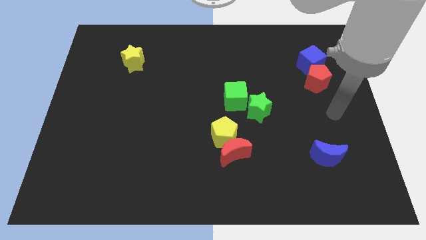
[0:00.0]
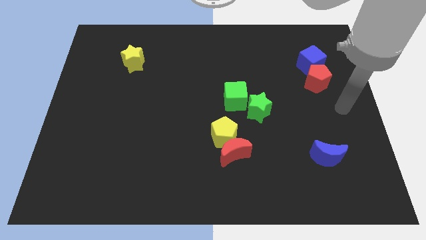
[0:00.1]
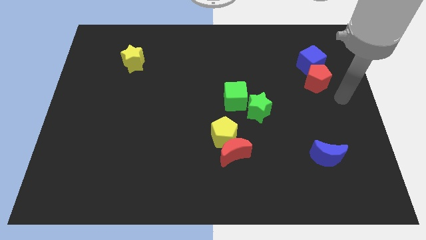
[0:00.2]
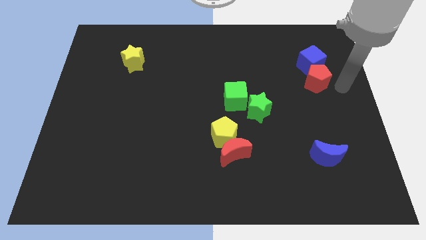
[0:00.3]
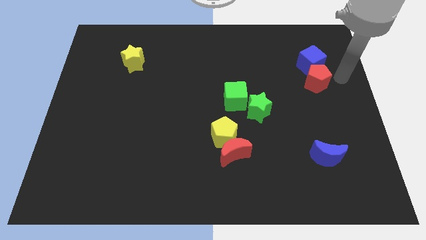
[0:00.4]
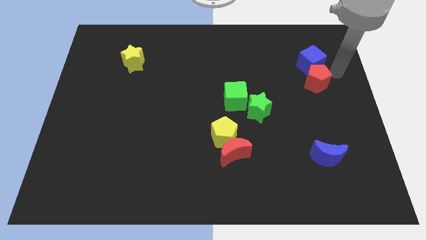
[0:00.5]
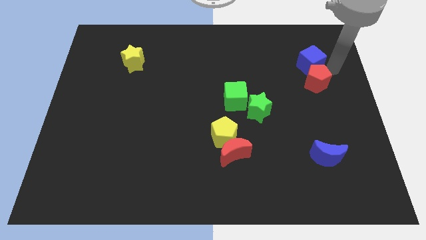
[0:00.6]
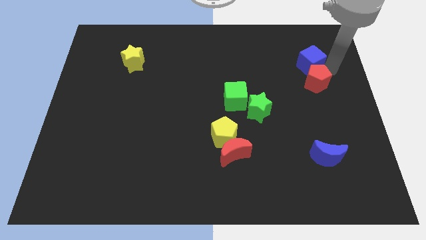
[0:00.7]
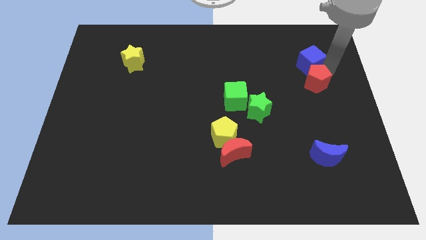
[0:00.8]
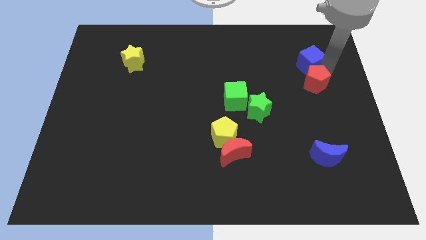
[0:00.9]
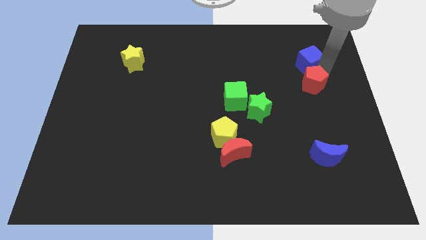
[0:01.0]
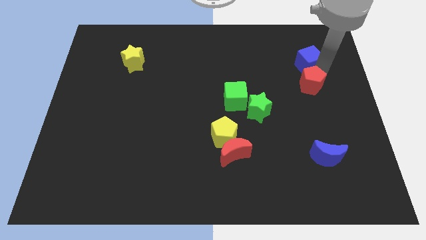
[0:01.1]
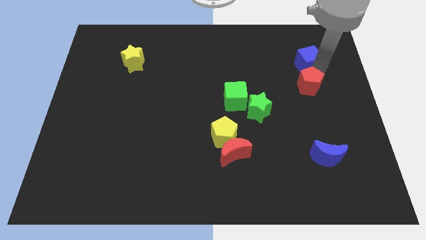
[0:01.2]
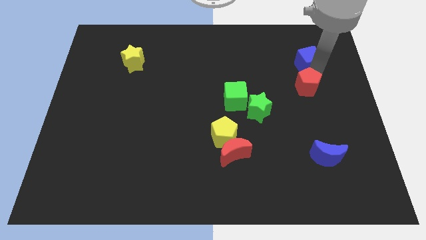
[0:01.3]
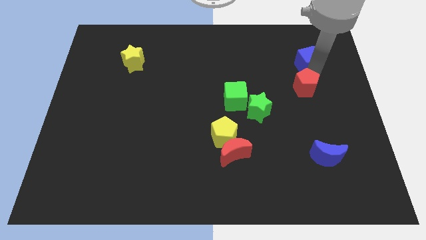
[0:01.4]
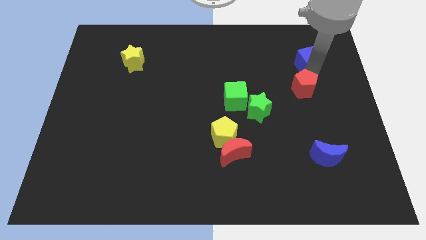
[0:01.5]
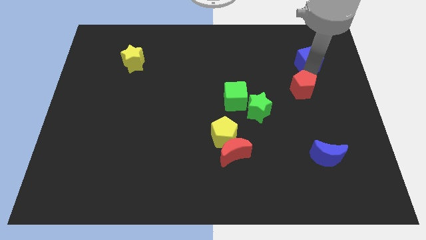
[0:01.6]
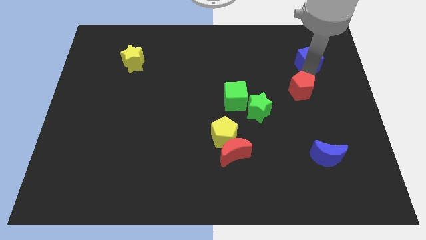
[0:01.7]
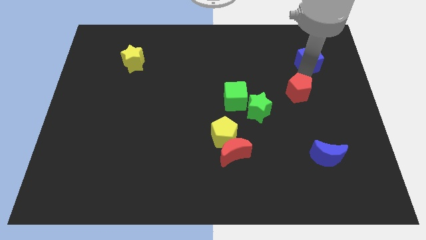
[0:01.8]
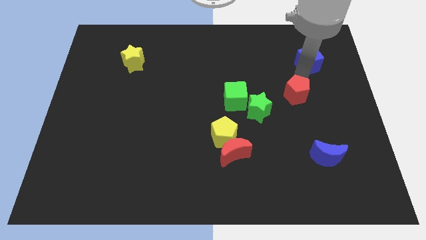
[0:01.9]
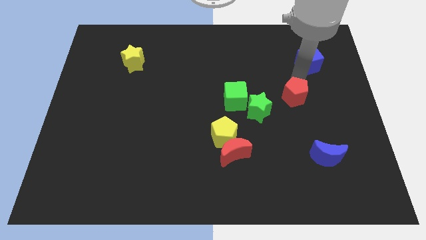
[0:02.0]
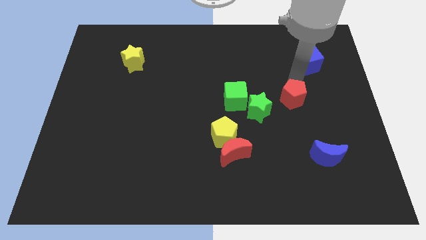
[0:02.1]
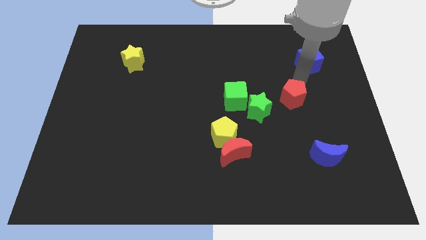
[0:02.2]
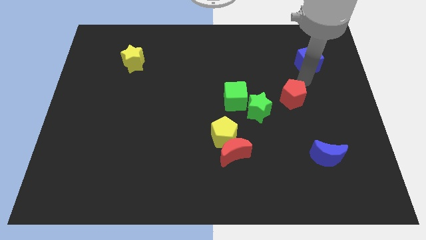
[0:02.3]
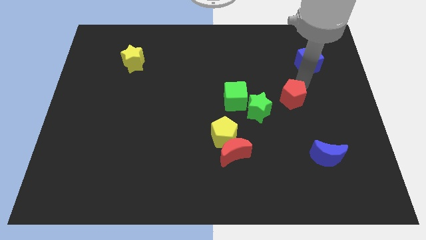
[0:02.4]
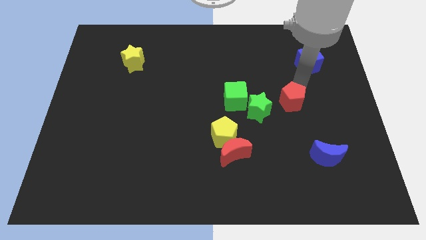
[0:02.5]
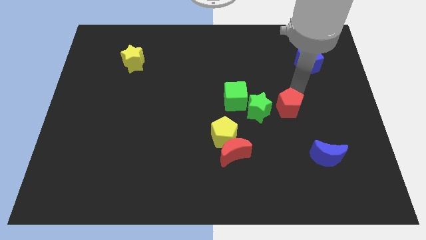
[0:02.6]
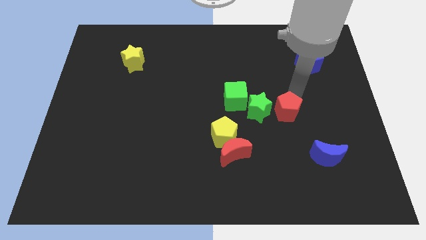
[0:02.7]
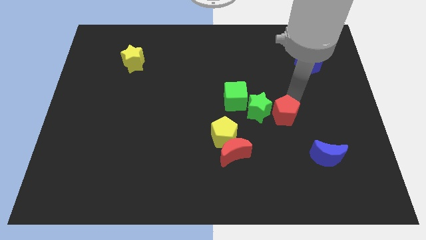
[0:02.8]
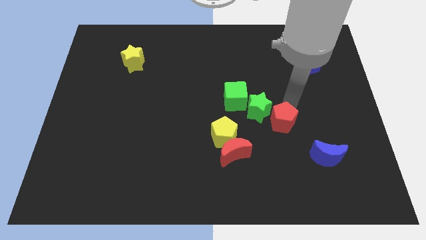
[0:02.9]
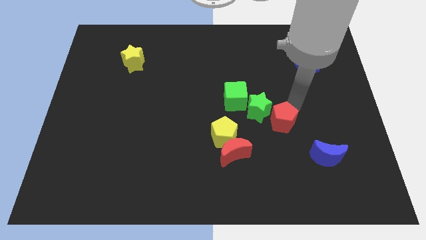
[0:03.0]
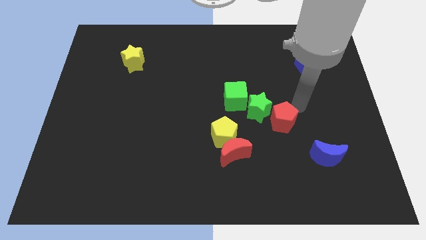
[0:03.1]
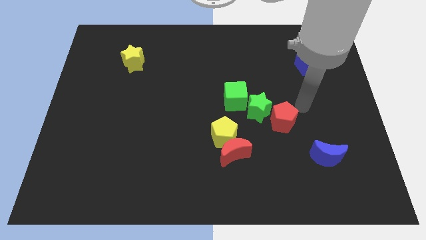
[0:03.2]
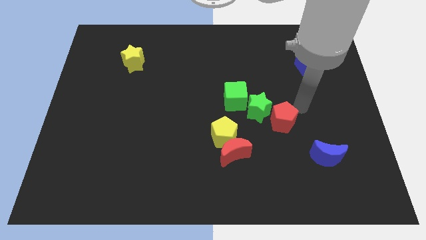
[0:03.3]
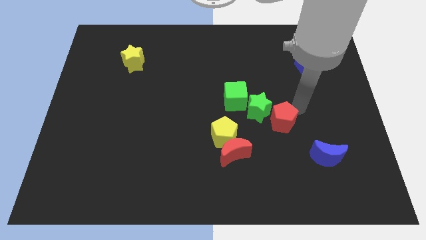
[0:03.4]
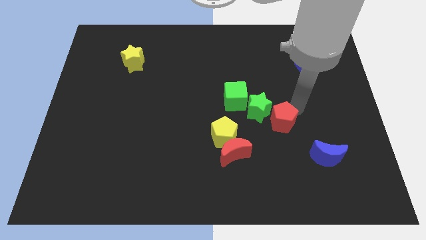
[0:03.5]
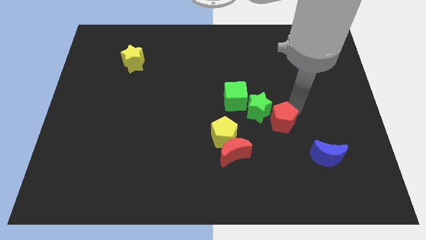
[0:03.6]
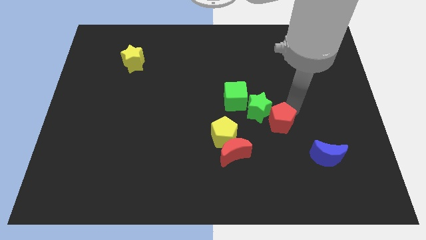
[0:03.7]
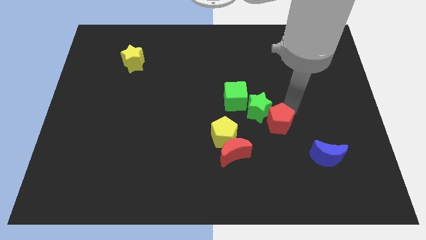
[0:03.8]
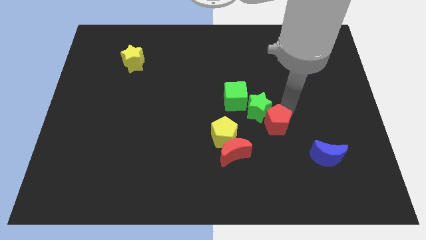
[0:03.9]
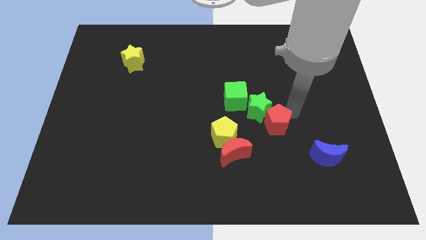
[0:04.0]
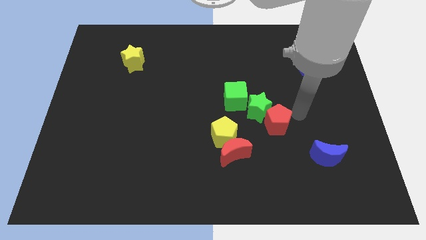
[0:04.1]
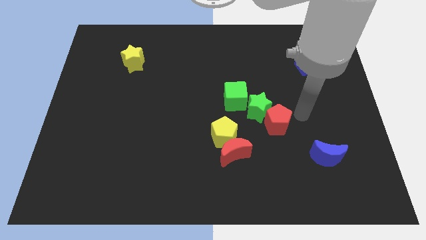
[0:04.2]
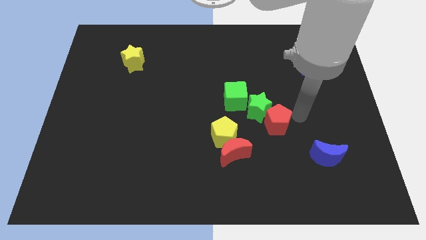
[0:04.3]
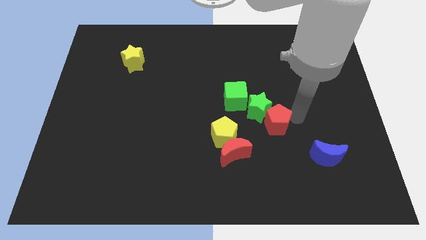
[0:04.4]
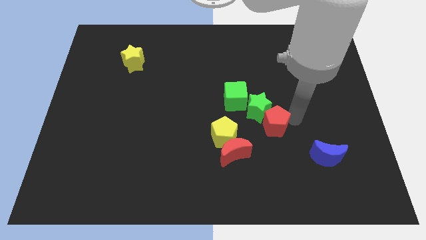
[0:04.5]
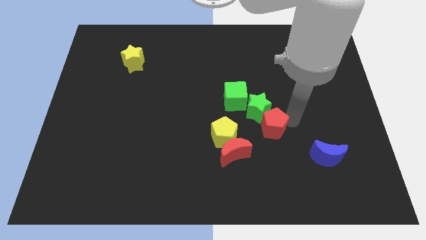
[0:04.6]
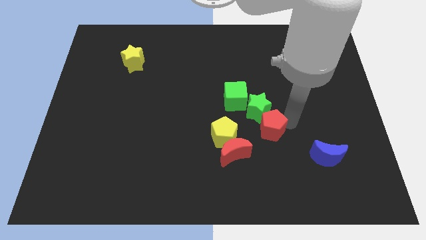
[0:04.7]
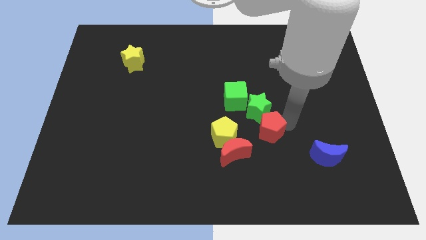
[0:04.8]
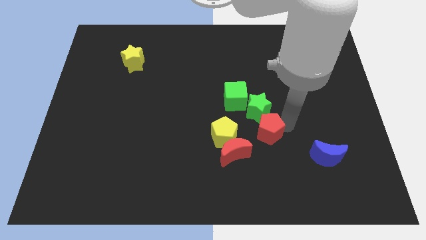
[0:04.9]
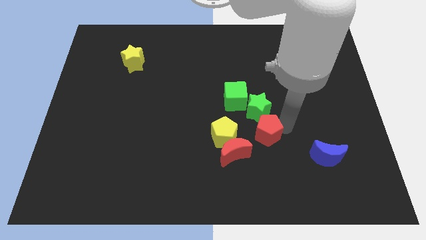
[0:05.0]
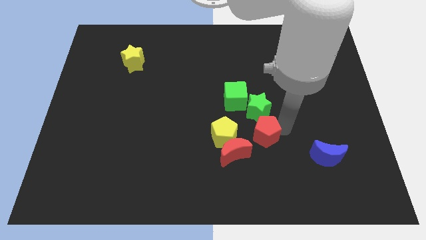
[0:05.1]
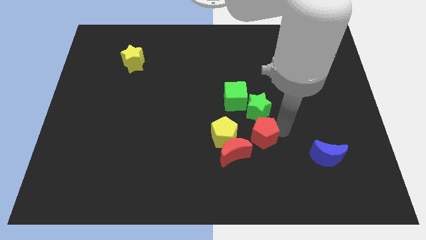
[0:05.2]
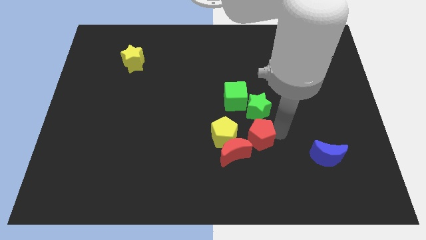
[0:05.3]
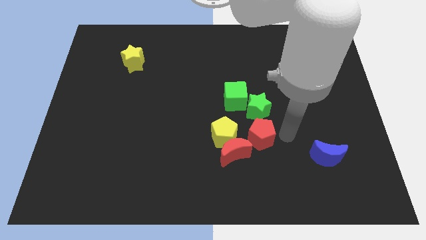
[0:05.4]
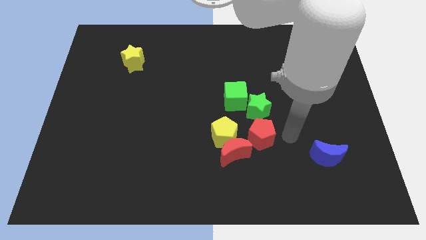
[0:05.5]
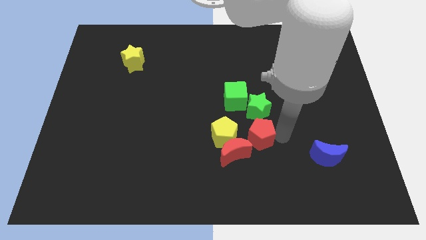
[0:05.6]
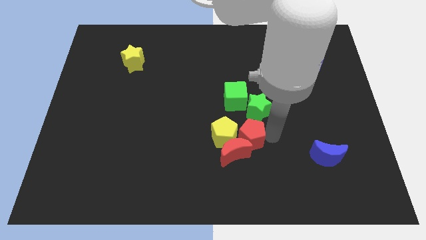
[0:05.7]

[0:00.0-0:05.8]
slide the red pentagon towards the yellow pentagon

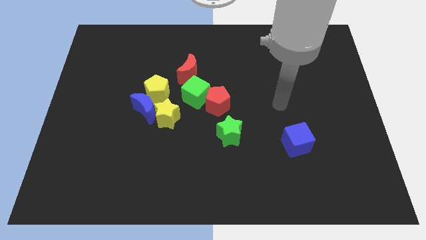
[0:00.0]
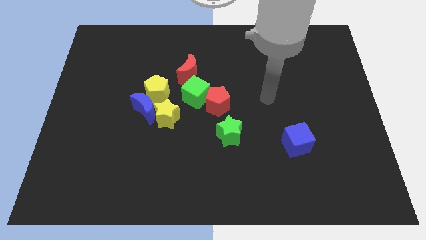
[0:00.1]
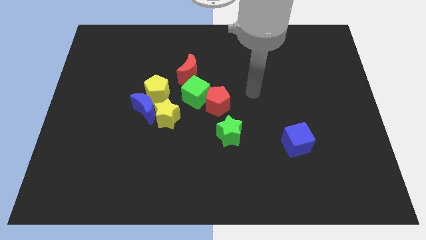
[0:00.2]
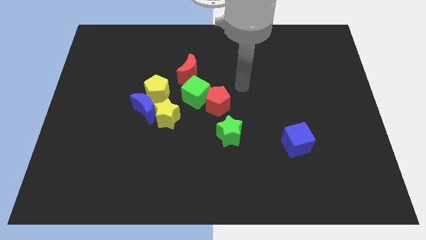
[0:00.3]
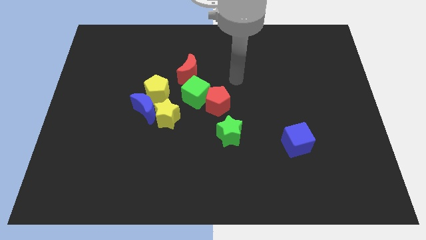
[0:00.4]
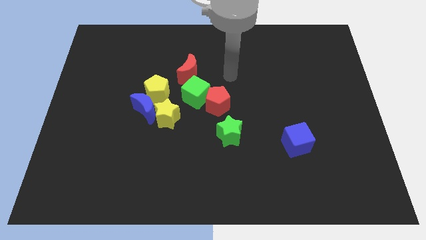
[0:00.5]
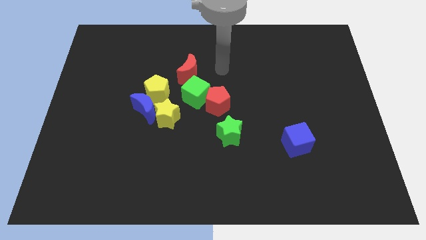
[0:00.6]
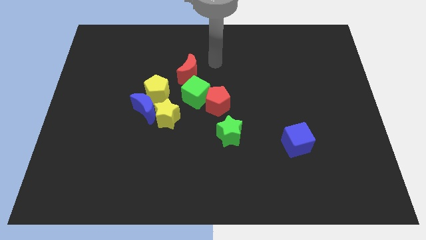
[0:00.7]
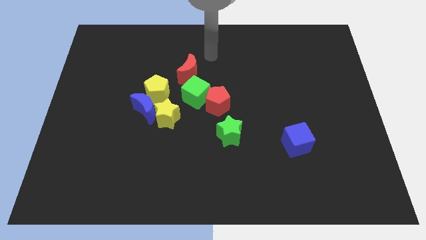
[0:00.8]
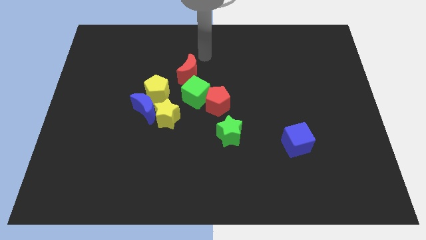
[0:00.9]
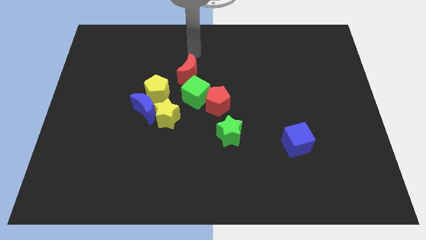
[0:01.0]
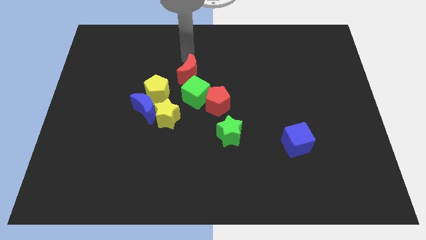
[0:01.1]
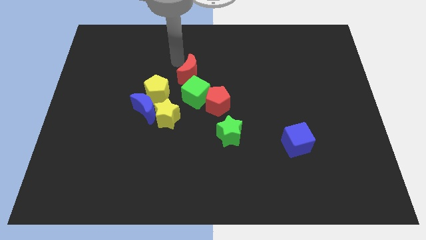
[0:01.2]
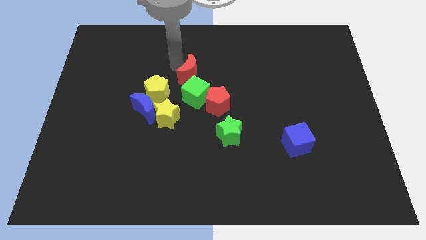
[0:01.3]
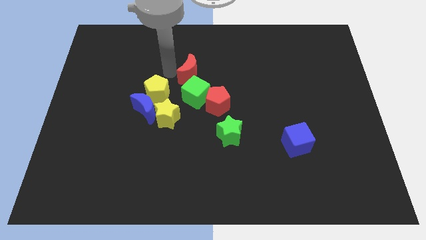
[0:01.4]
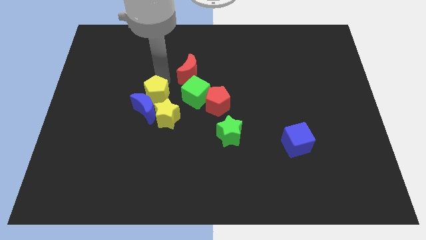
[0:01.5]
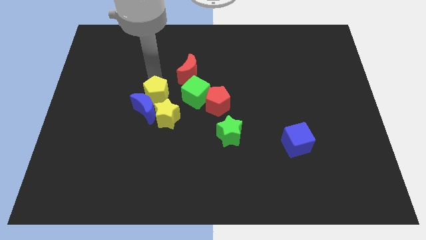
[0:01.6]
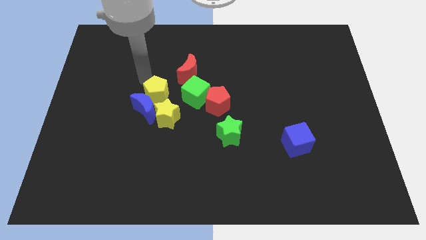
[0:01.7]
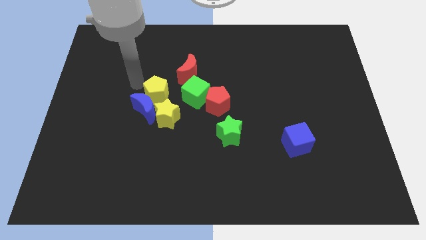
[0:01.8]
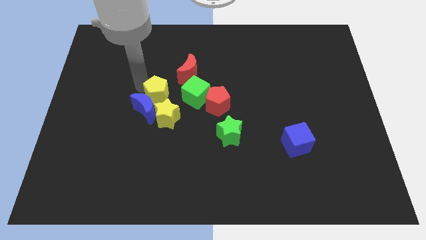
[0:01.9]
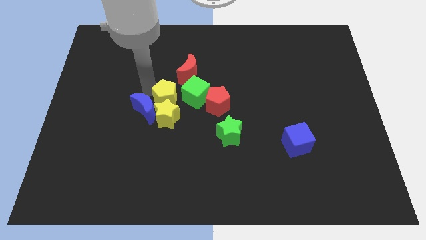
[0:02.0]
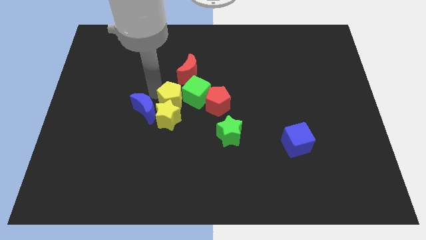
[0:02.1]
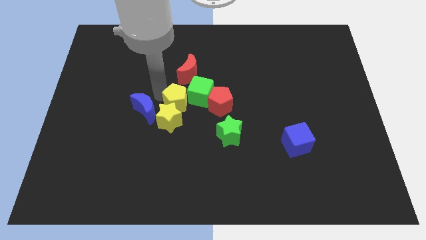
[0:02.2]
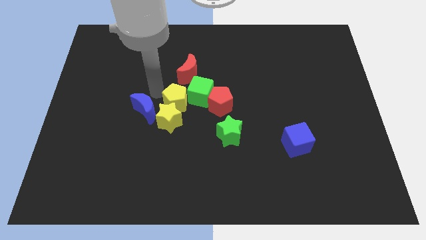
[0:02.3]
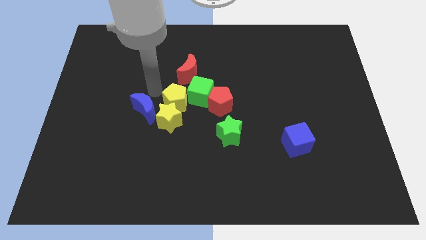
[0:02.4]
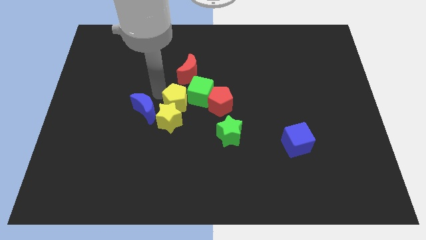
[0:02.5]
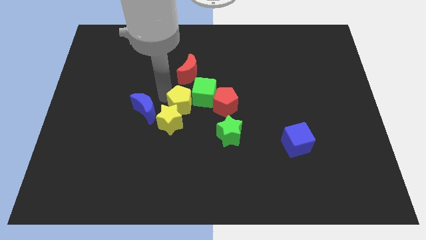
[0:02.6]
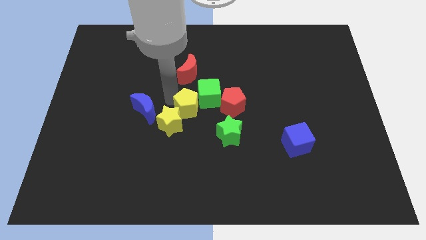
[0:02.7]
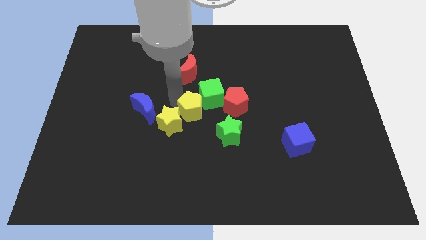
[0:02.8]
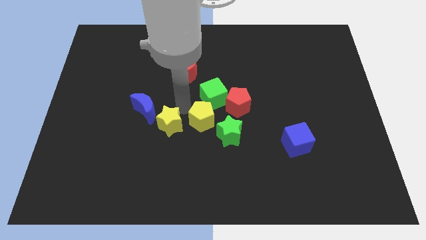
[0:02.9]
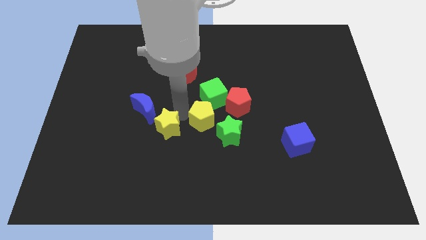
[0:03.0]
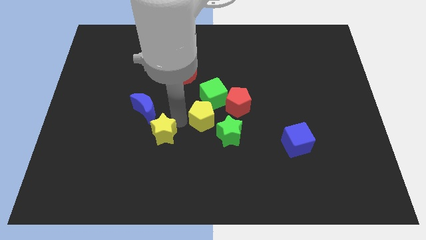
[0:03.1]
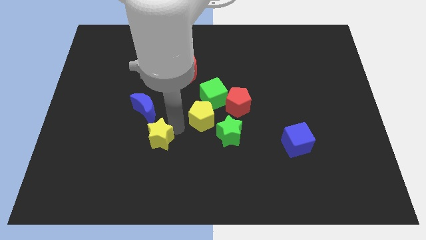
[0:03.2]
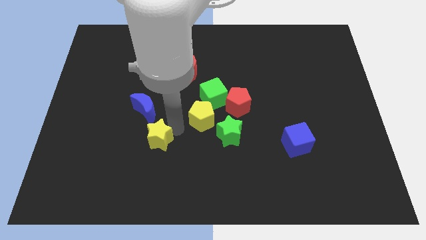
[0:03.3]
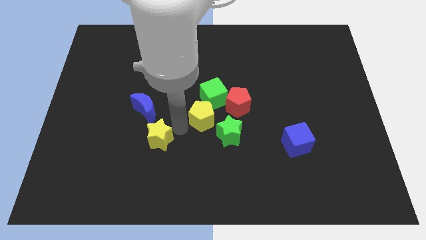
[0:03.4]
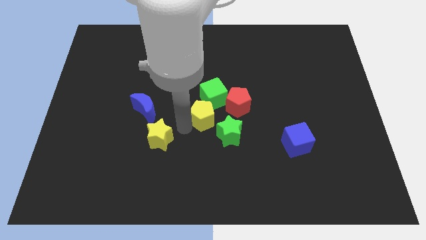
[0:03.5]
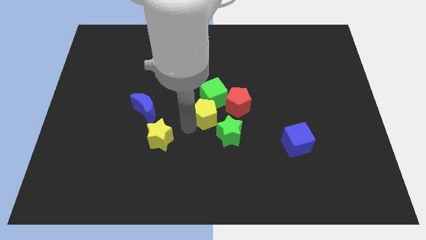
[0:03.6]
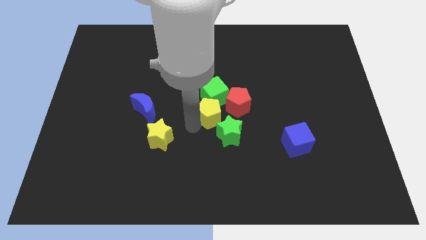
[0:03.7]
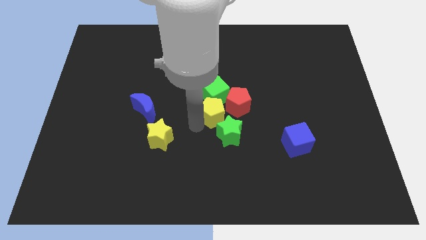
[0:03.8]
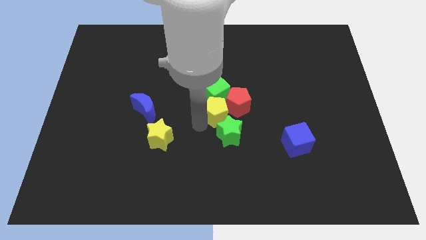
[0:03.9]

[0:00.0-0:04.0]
slide the yellow pentagon to the red pentagon
